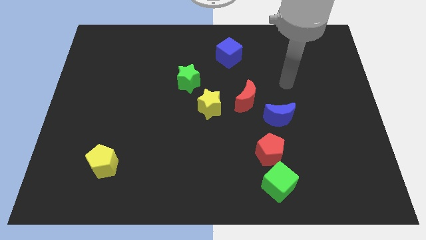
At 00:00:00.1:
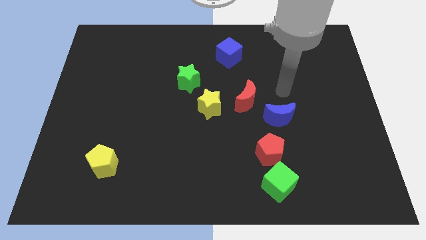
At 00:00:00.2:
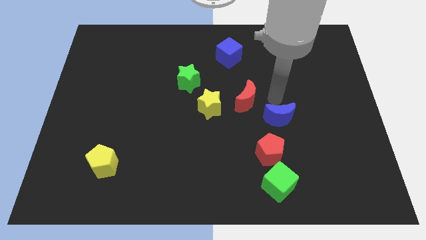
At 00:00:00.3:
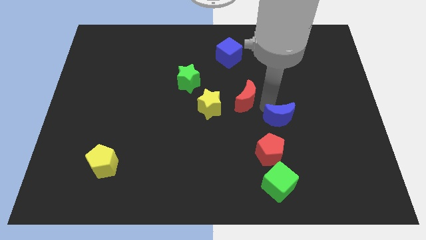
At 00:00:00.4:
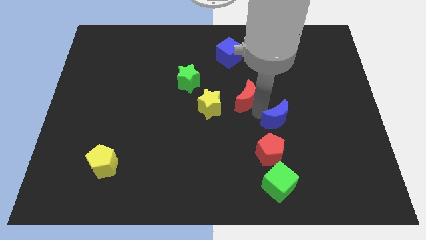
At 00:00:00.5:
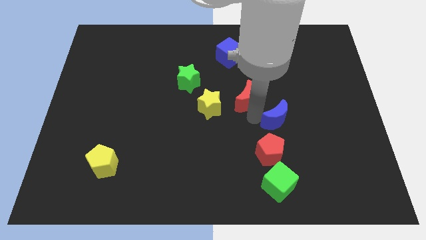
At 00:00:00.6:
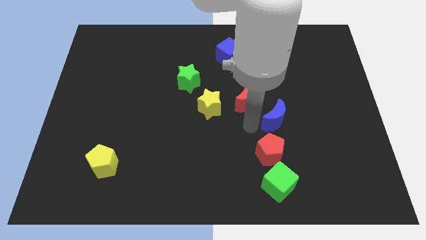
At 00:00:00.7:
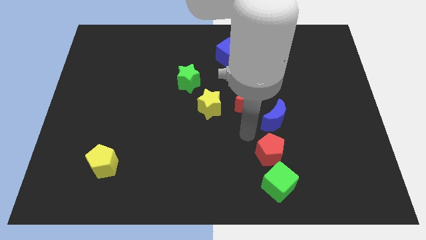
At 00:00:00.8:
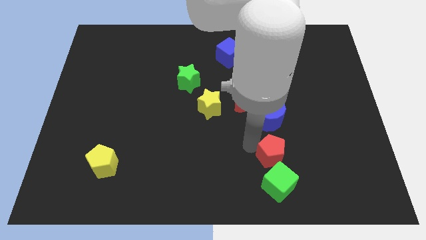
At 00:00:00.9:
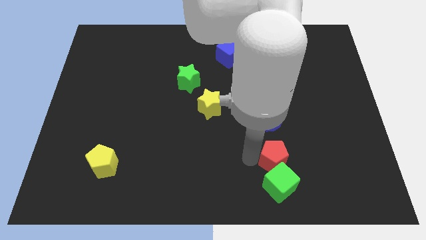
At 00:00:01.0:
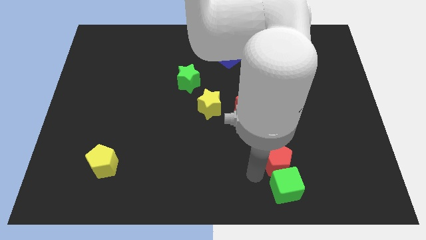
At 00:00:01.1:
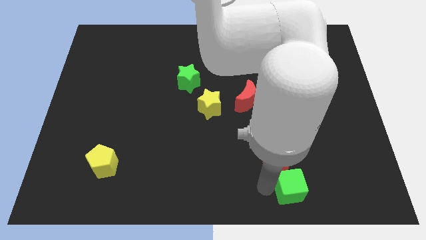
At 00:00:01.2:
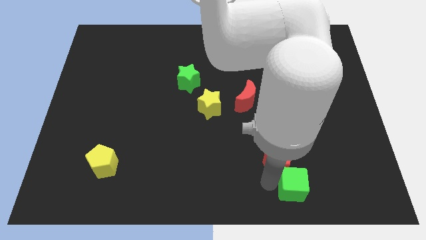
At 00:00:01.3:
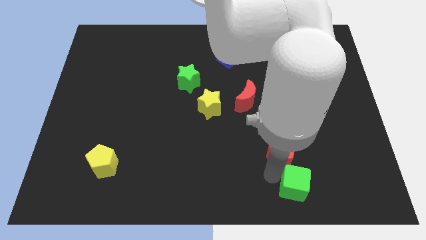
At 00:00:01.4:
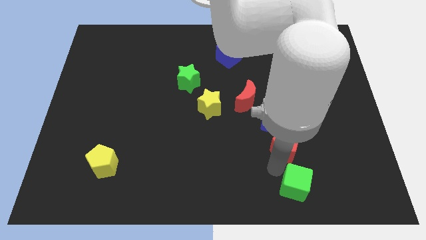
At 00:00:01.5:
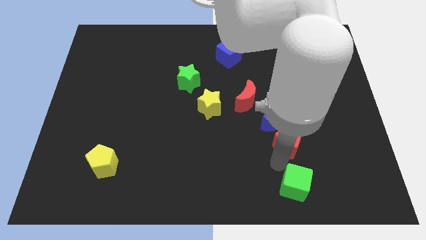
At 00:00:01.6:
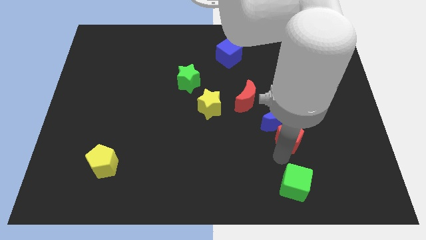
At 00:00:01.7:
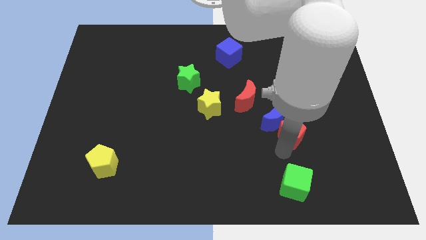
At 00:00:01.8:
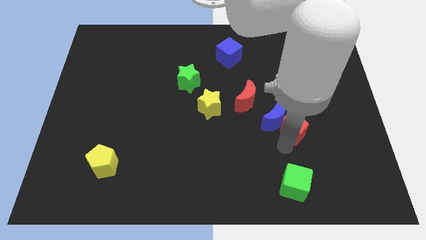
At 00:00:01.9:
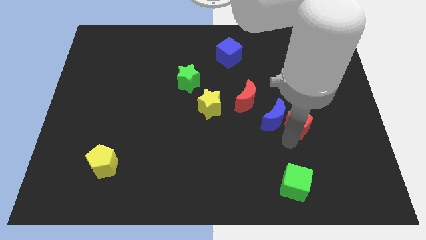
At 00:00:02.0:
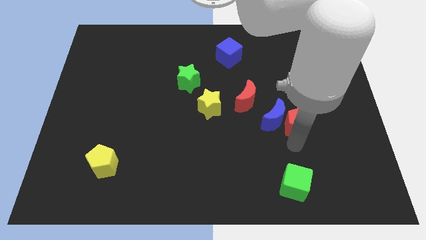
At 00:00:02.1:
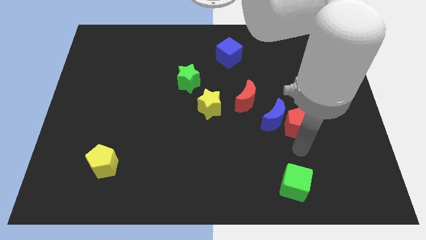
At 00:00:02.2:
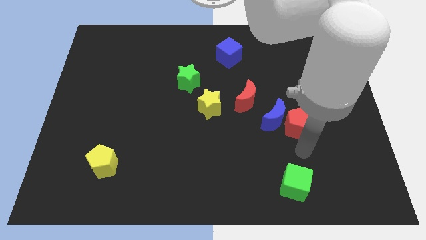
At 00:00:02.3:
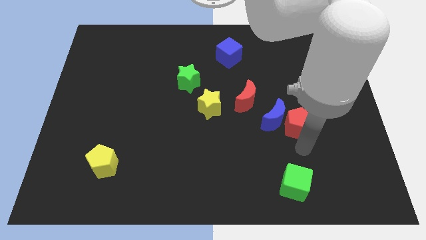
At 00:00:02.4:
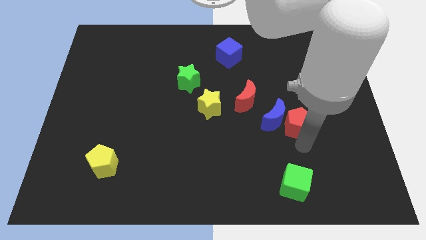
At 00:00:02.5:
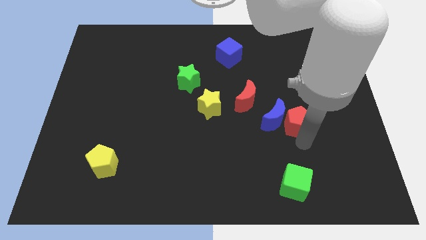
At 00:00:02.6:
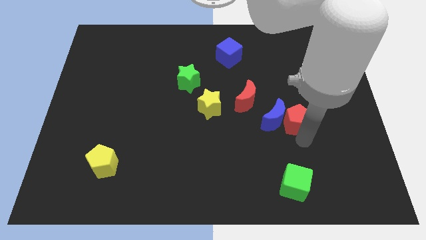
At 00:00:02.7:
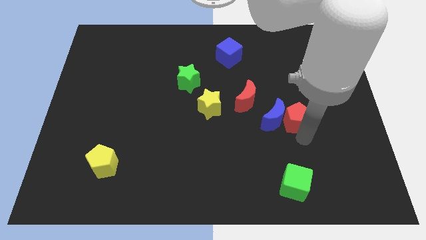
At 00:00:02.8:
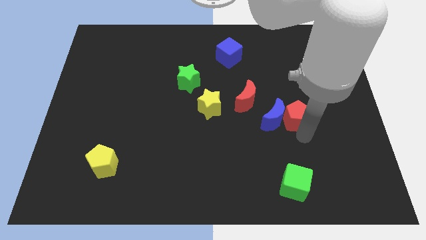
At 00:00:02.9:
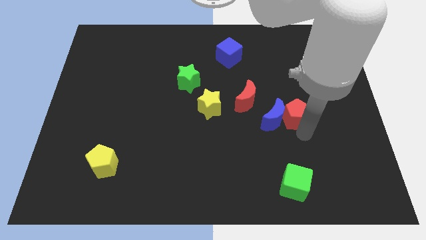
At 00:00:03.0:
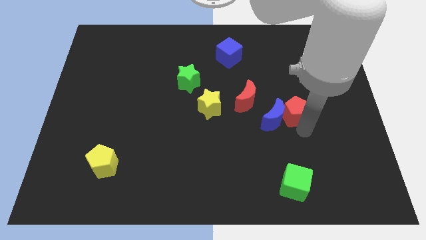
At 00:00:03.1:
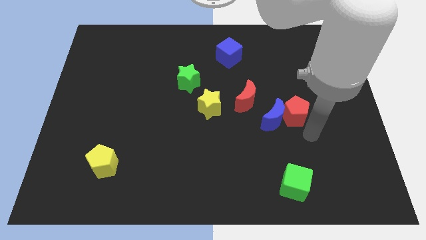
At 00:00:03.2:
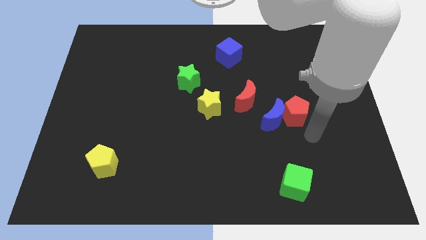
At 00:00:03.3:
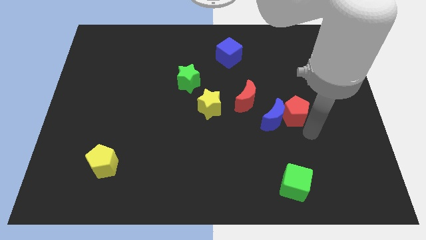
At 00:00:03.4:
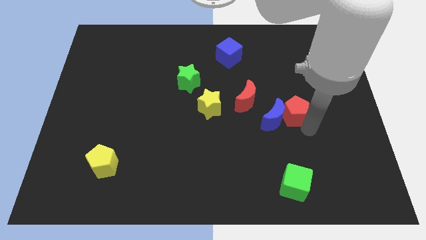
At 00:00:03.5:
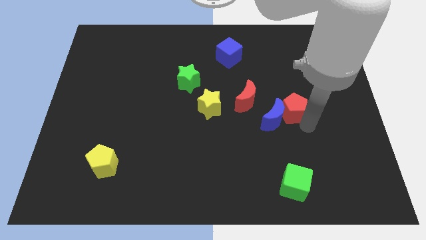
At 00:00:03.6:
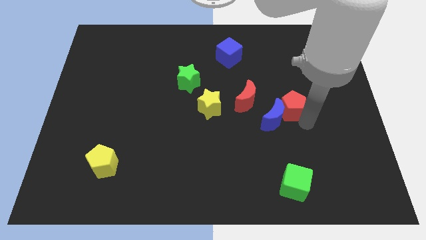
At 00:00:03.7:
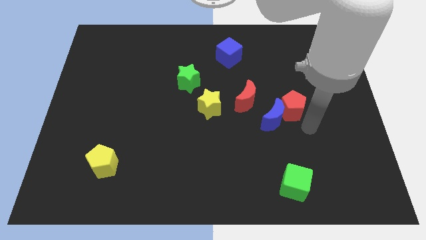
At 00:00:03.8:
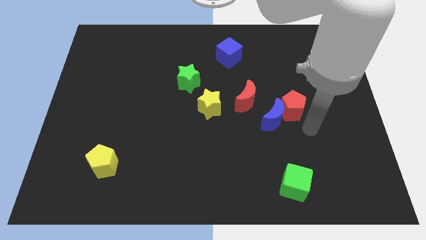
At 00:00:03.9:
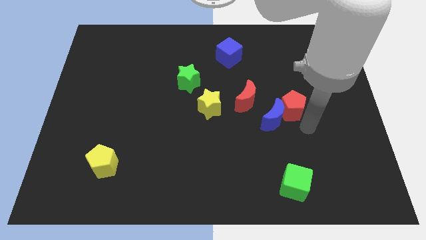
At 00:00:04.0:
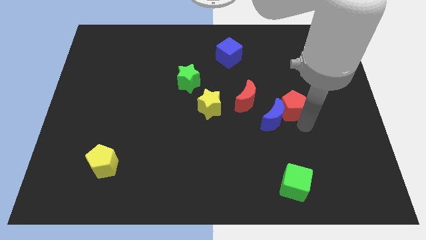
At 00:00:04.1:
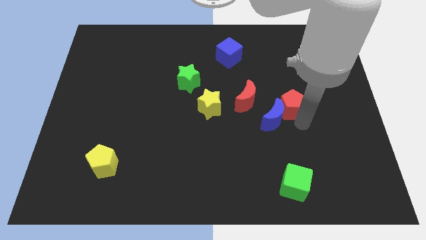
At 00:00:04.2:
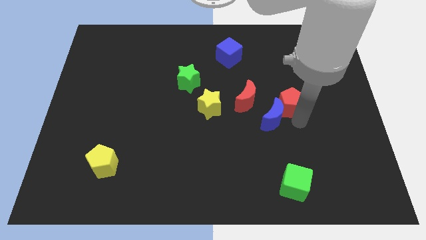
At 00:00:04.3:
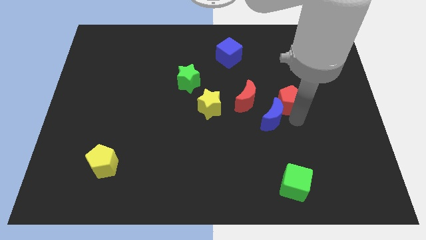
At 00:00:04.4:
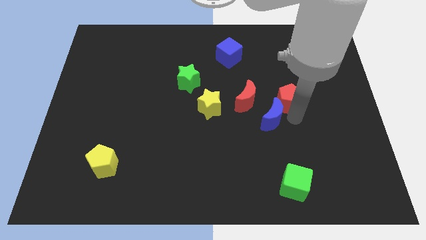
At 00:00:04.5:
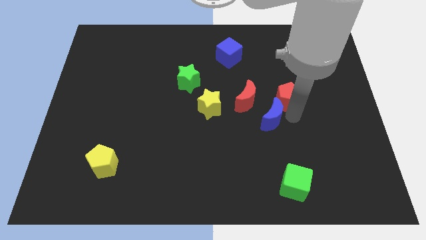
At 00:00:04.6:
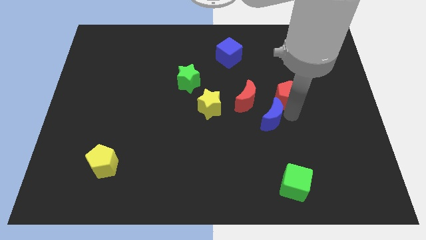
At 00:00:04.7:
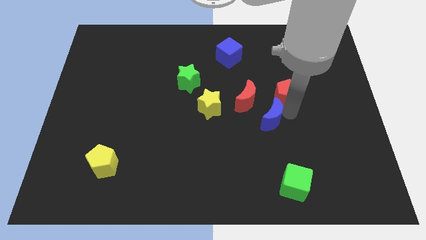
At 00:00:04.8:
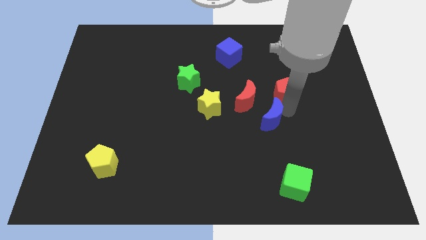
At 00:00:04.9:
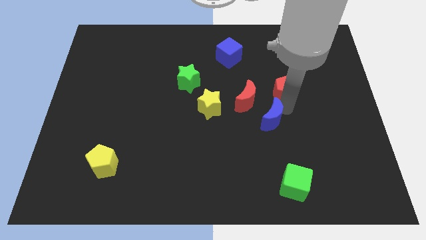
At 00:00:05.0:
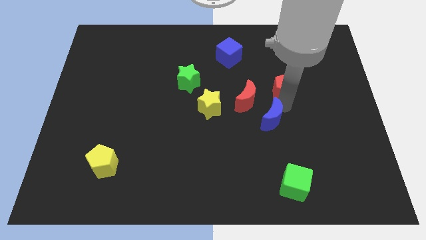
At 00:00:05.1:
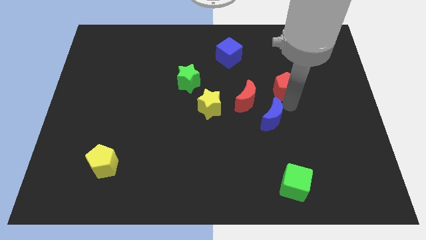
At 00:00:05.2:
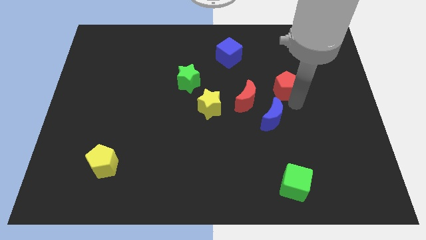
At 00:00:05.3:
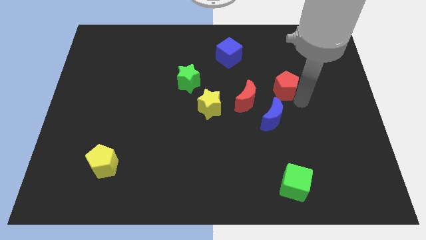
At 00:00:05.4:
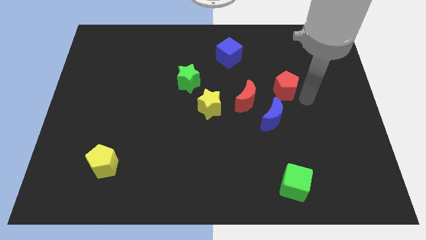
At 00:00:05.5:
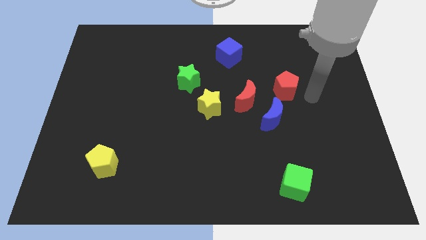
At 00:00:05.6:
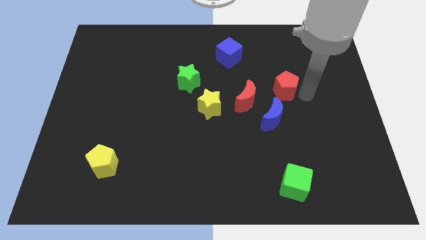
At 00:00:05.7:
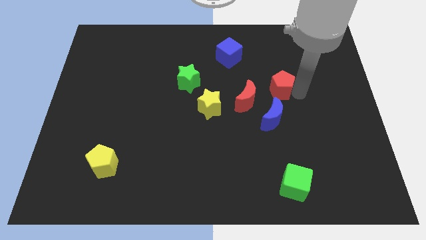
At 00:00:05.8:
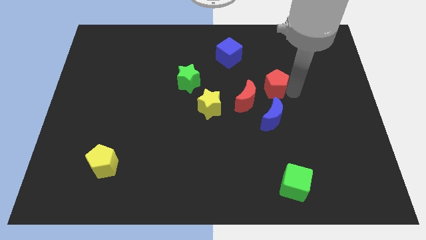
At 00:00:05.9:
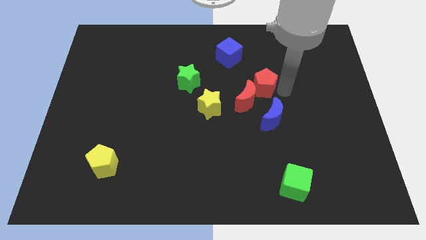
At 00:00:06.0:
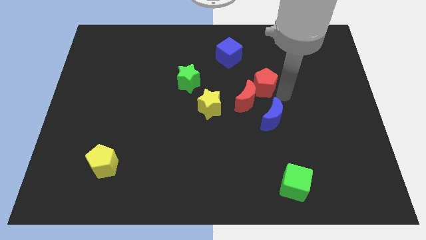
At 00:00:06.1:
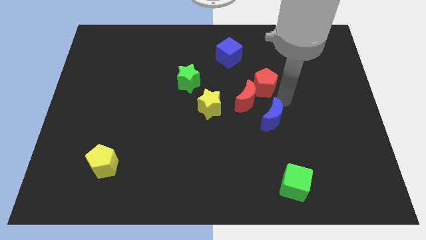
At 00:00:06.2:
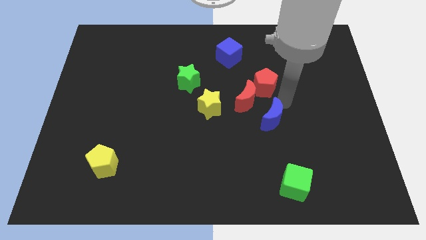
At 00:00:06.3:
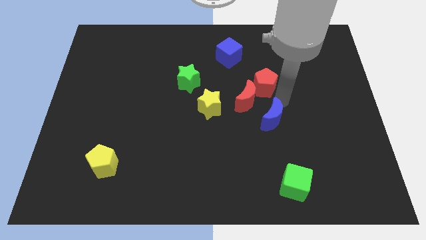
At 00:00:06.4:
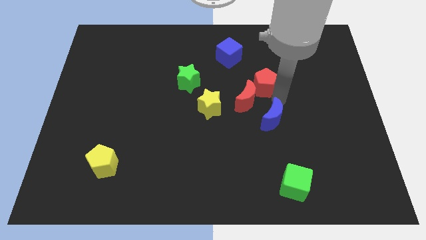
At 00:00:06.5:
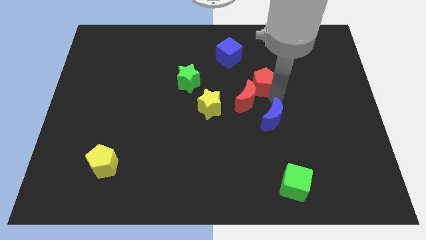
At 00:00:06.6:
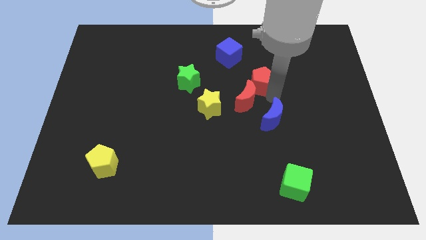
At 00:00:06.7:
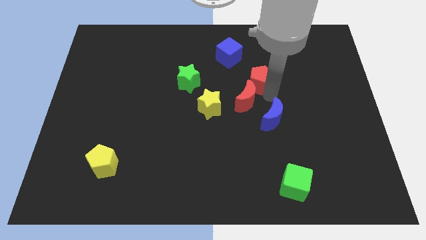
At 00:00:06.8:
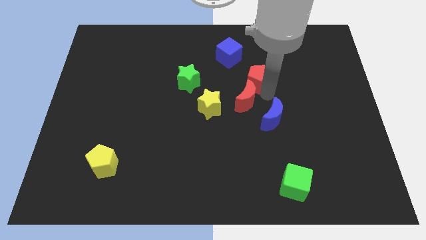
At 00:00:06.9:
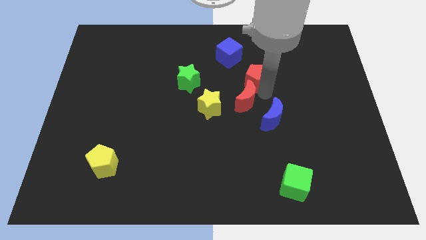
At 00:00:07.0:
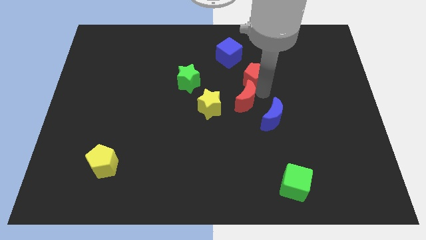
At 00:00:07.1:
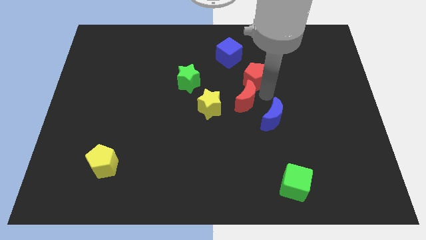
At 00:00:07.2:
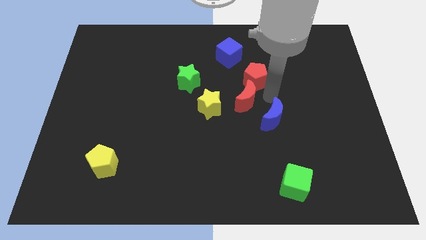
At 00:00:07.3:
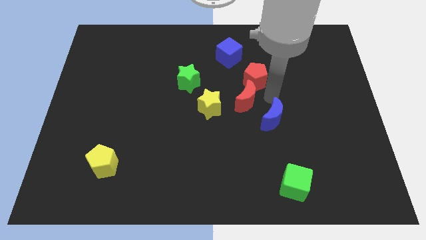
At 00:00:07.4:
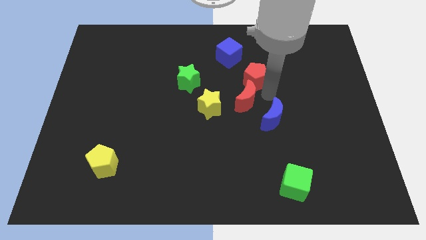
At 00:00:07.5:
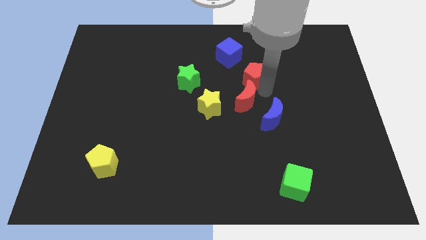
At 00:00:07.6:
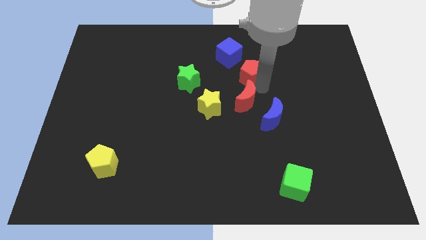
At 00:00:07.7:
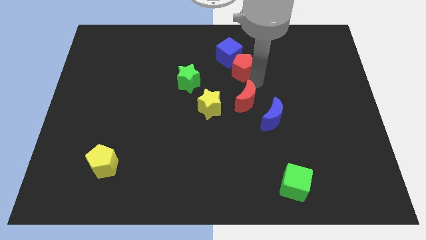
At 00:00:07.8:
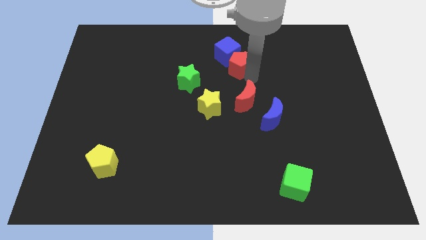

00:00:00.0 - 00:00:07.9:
push the red pentagon towards the blue cube
